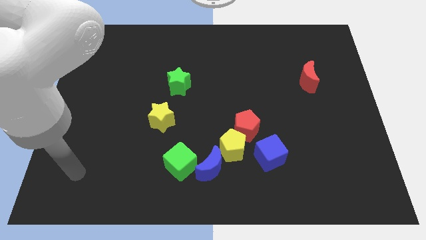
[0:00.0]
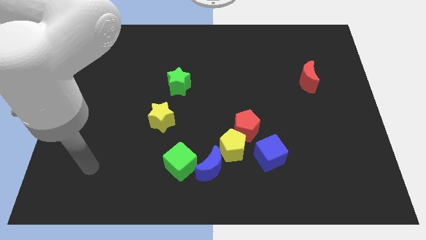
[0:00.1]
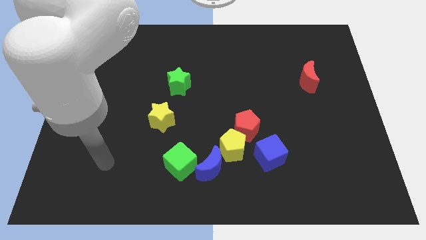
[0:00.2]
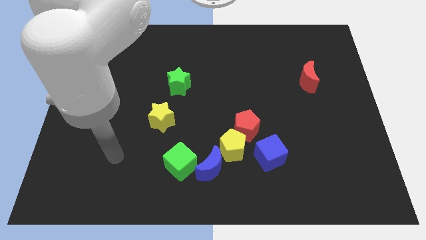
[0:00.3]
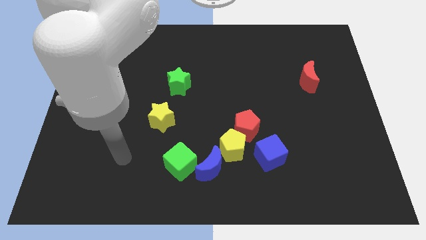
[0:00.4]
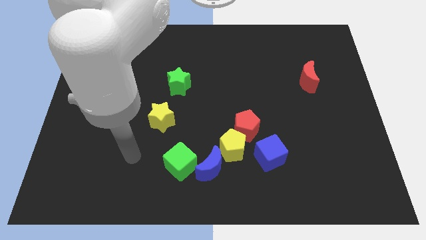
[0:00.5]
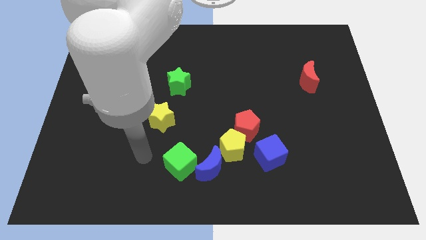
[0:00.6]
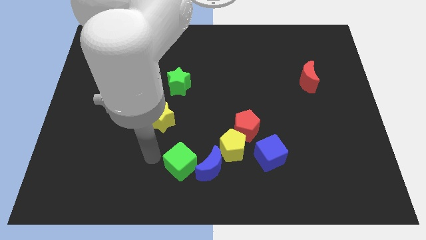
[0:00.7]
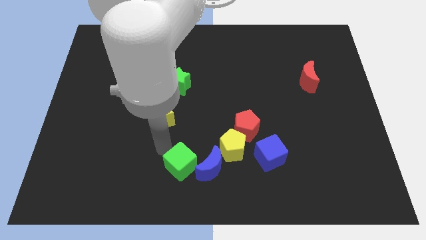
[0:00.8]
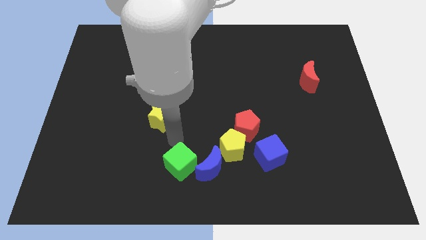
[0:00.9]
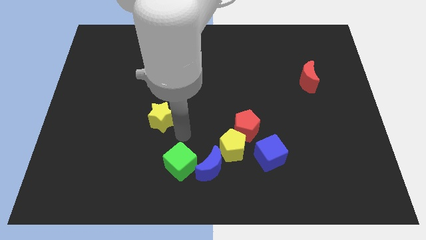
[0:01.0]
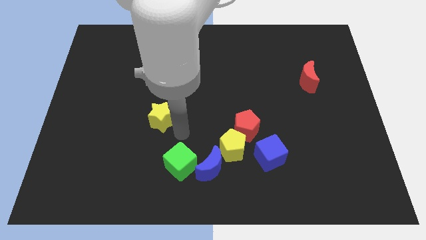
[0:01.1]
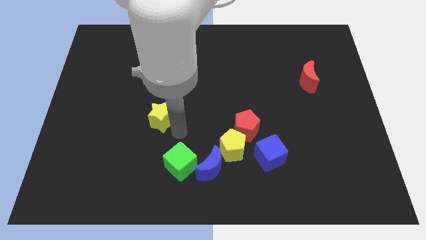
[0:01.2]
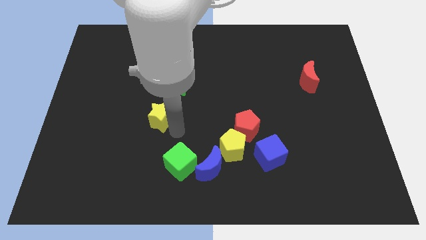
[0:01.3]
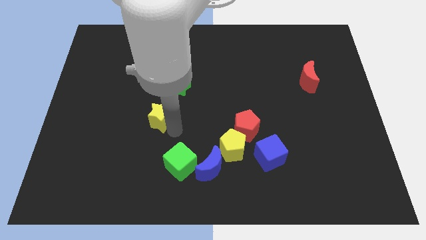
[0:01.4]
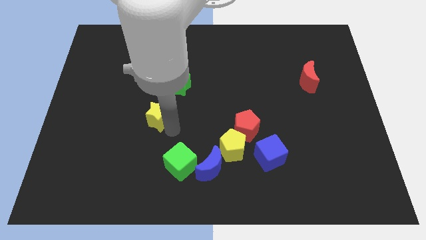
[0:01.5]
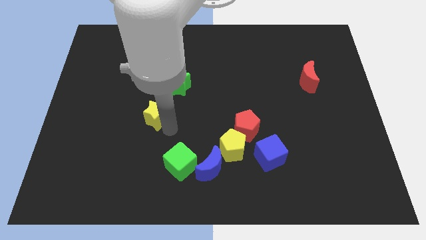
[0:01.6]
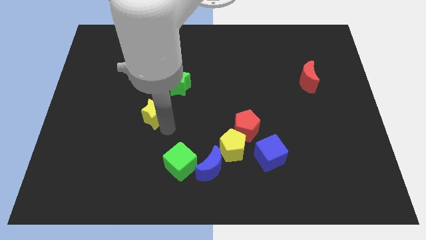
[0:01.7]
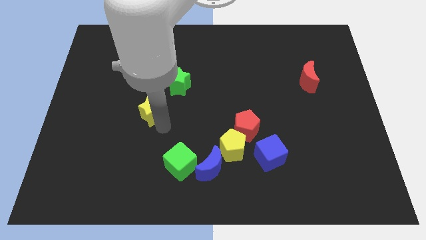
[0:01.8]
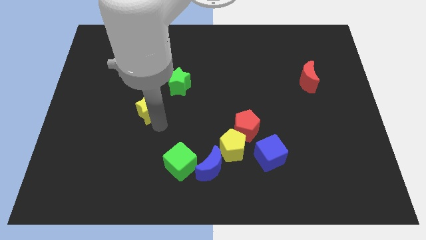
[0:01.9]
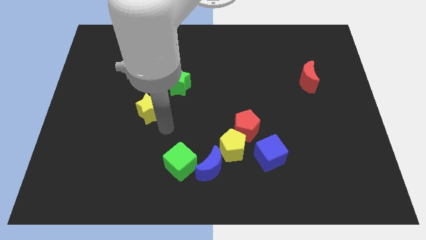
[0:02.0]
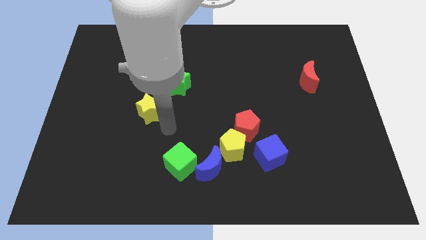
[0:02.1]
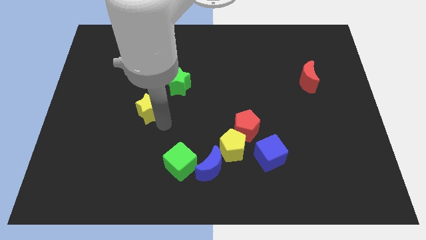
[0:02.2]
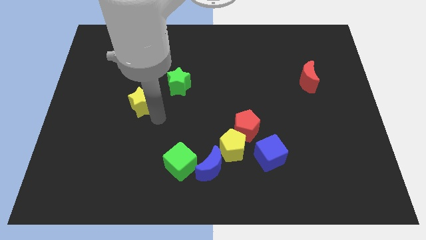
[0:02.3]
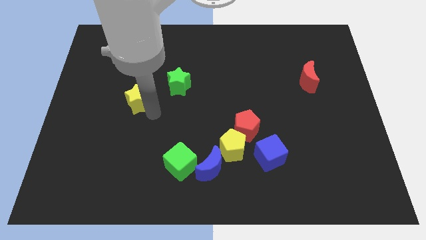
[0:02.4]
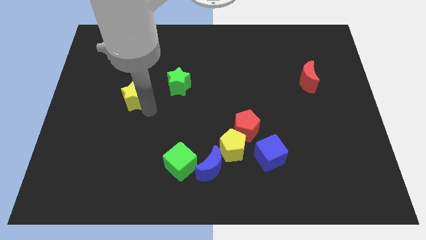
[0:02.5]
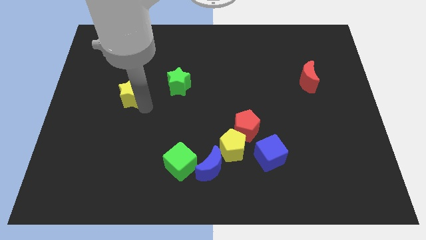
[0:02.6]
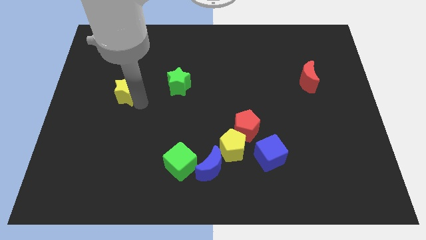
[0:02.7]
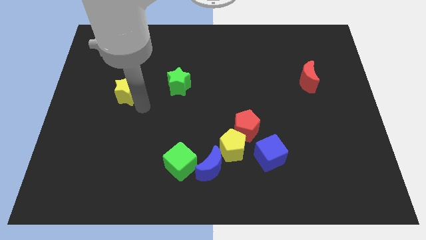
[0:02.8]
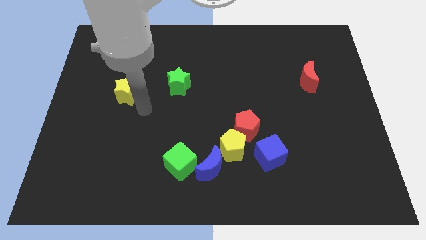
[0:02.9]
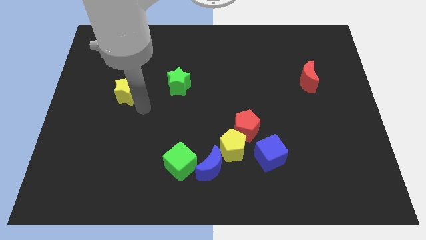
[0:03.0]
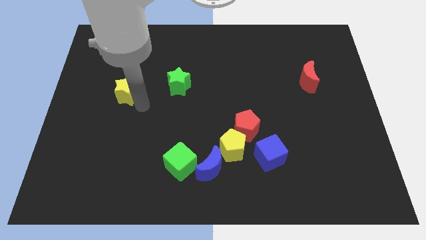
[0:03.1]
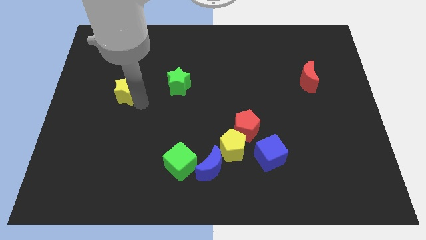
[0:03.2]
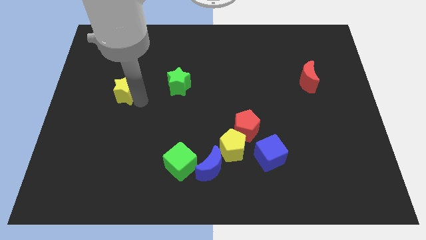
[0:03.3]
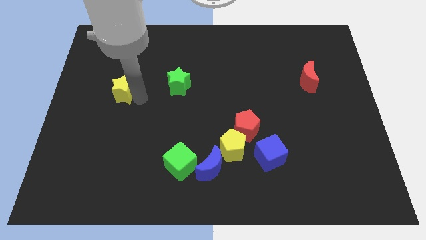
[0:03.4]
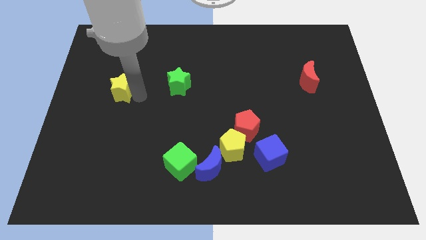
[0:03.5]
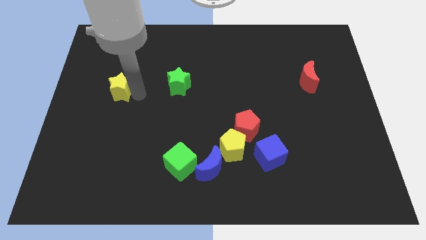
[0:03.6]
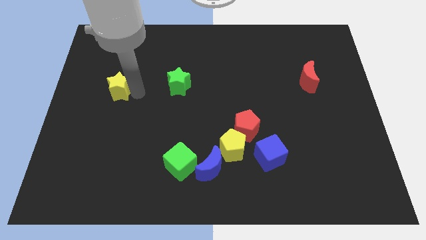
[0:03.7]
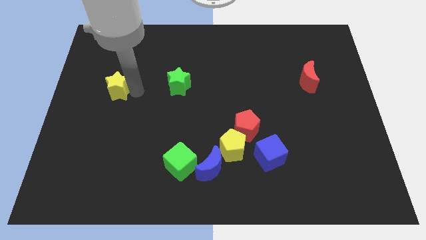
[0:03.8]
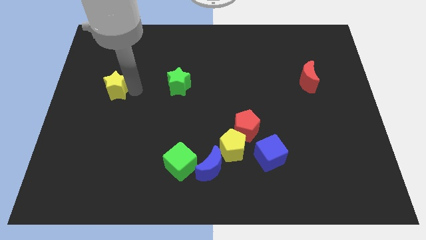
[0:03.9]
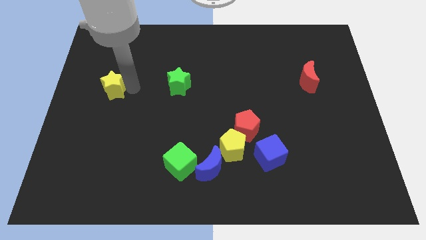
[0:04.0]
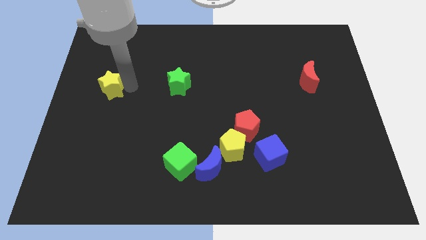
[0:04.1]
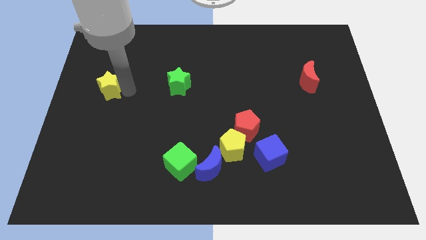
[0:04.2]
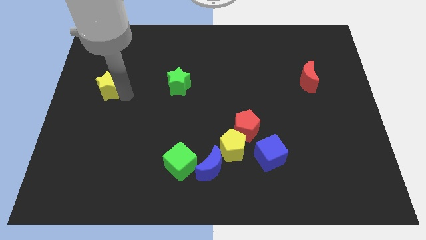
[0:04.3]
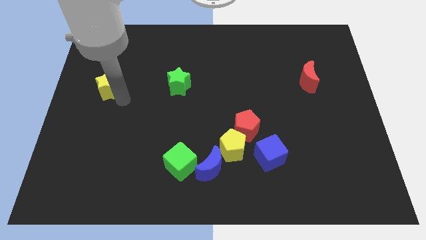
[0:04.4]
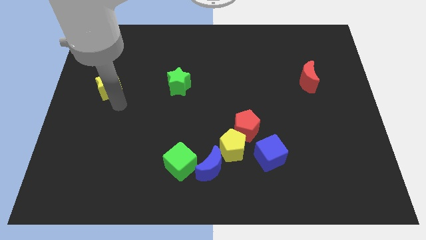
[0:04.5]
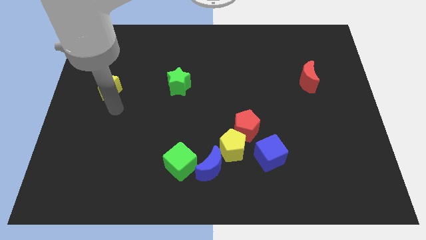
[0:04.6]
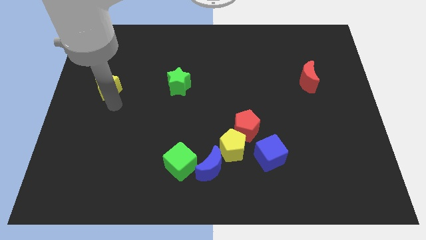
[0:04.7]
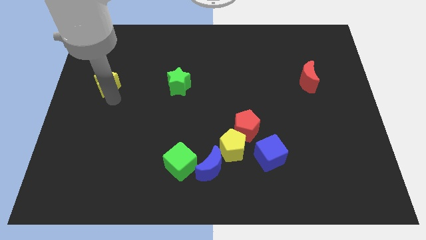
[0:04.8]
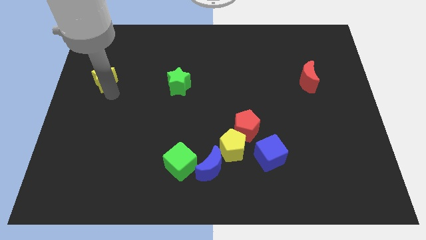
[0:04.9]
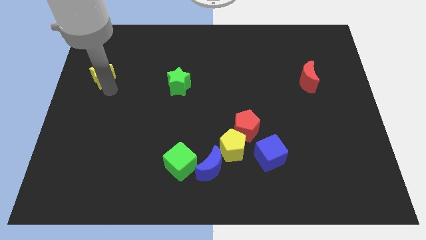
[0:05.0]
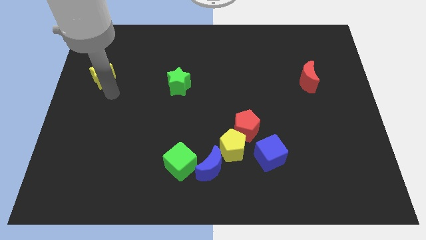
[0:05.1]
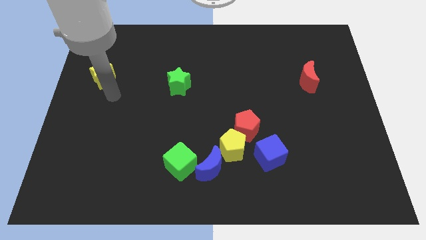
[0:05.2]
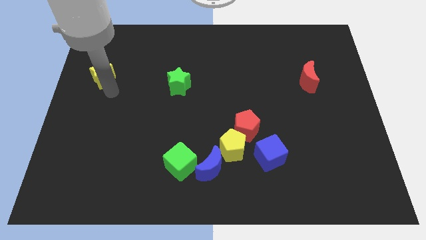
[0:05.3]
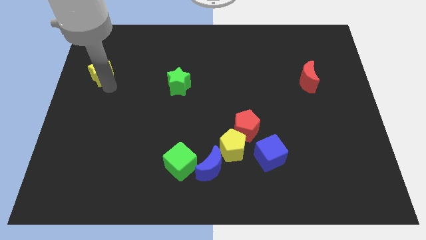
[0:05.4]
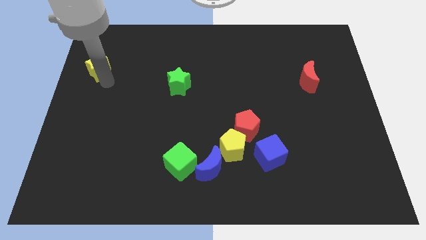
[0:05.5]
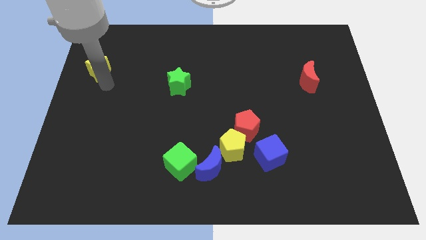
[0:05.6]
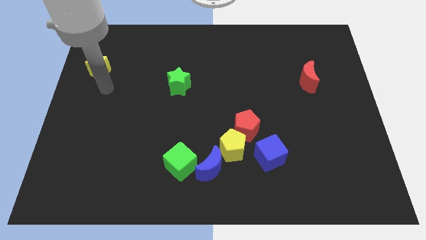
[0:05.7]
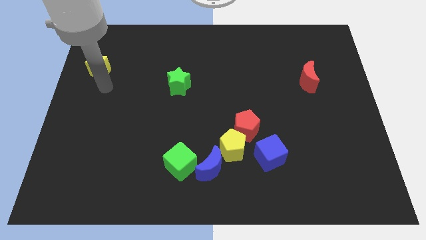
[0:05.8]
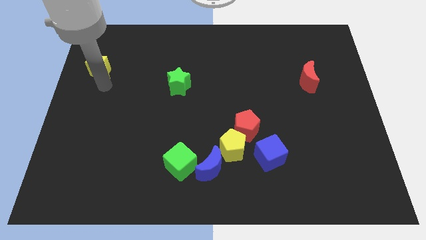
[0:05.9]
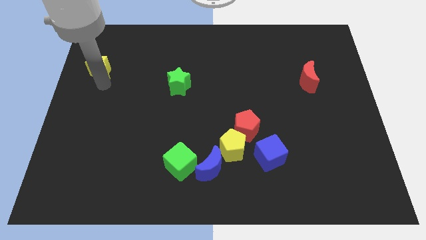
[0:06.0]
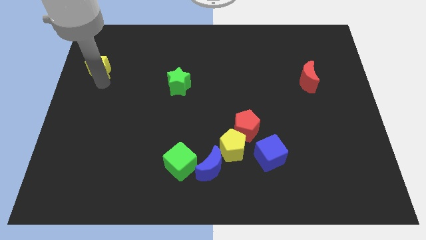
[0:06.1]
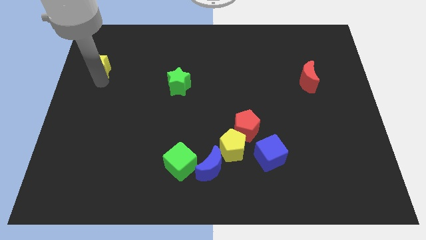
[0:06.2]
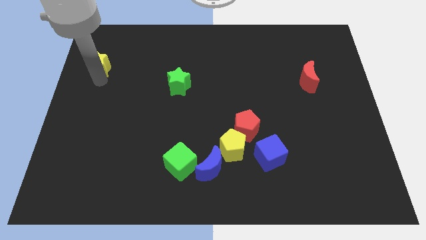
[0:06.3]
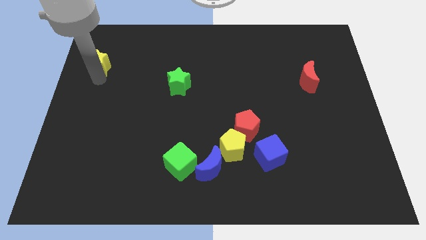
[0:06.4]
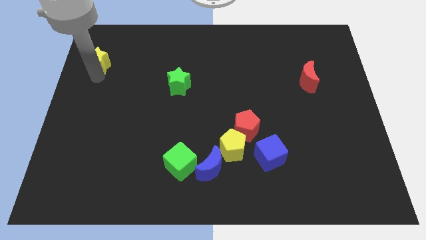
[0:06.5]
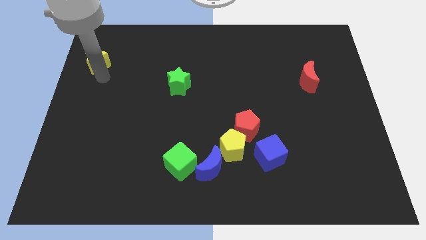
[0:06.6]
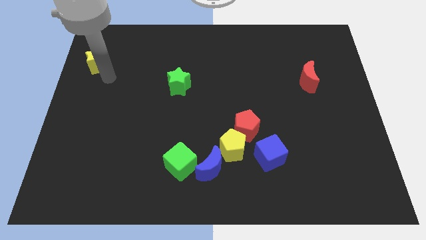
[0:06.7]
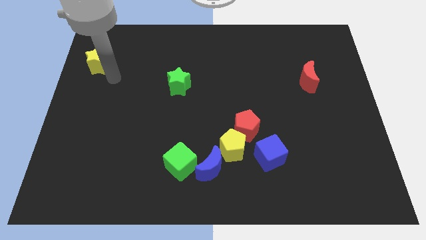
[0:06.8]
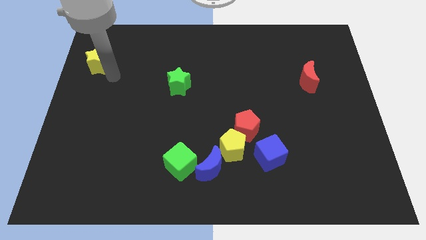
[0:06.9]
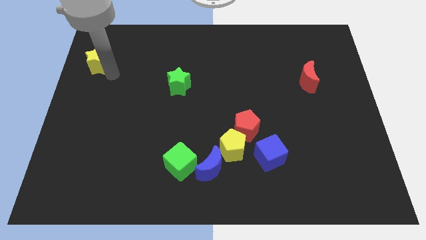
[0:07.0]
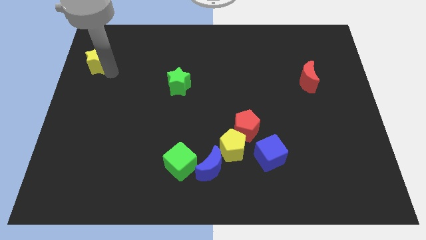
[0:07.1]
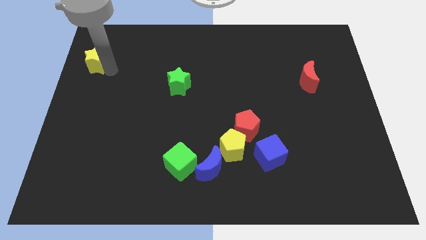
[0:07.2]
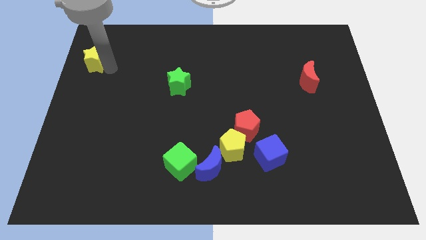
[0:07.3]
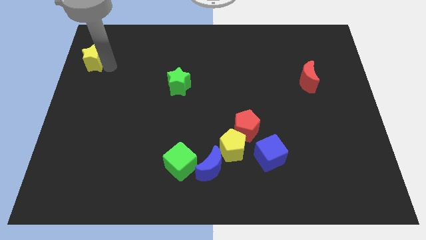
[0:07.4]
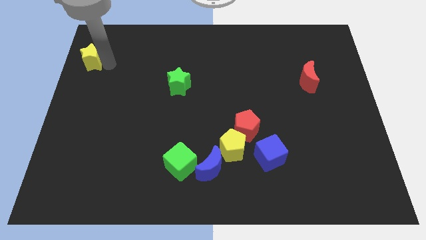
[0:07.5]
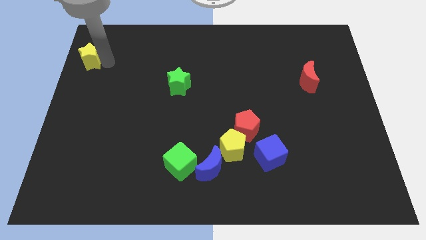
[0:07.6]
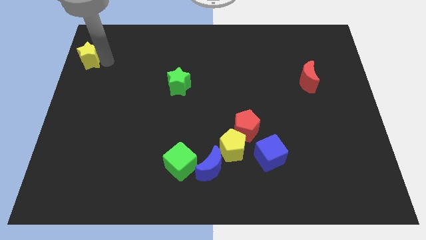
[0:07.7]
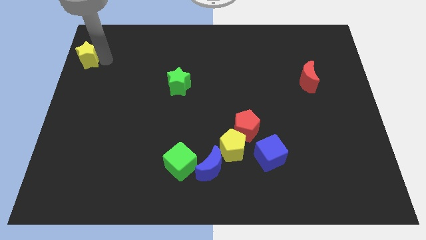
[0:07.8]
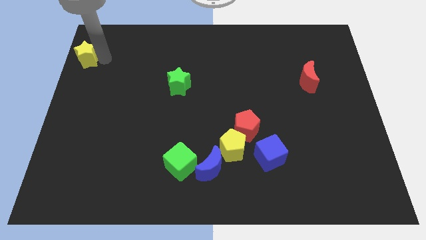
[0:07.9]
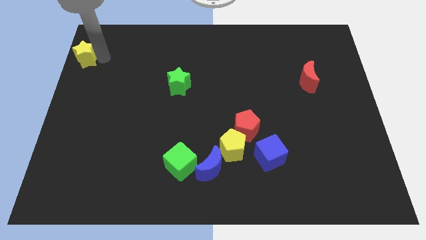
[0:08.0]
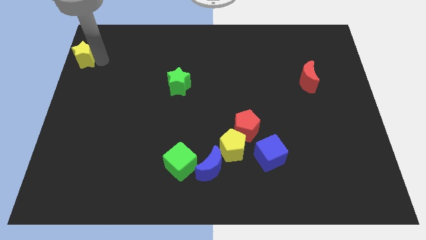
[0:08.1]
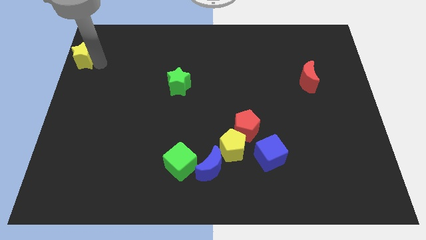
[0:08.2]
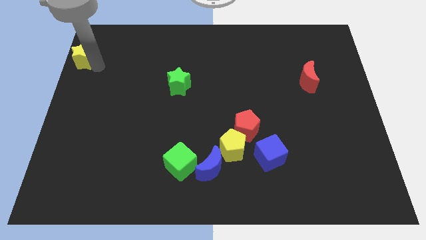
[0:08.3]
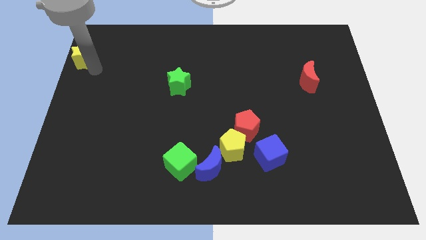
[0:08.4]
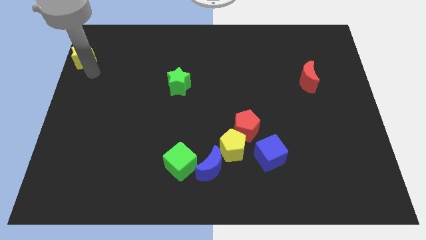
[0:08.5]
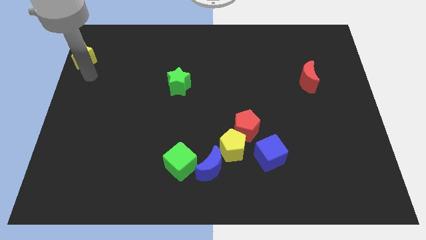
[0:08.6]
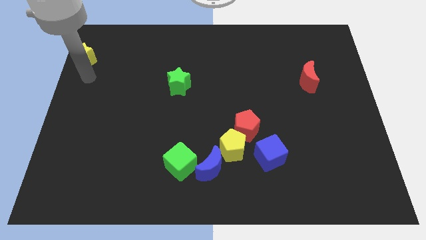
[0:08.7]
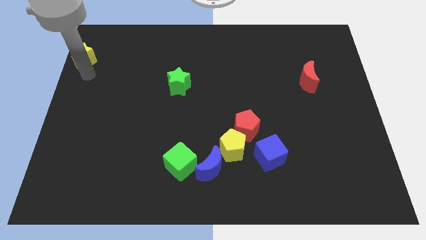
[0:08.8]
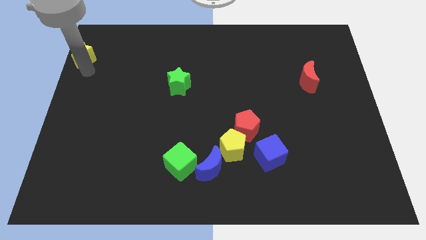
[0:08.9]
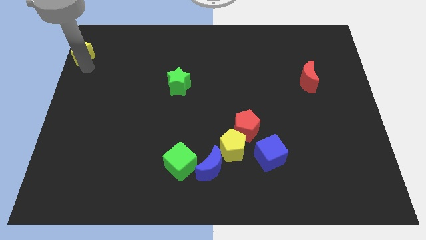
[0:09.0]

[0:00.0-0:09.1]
slide the yellow star to the top left corner
